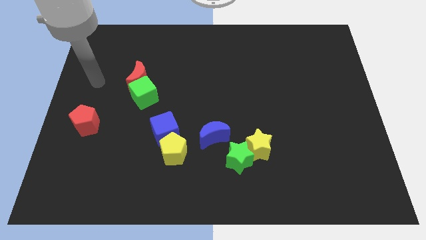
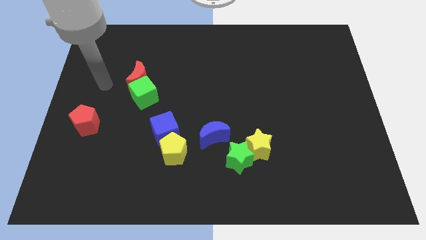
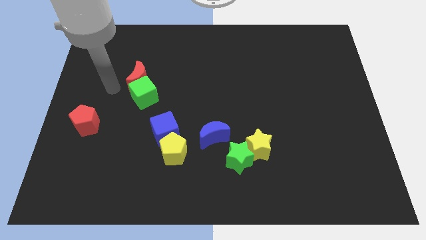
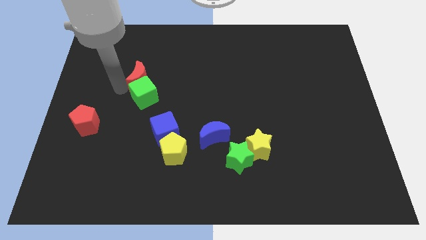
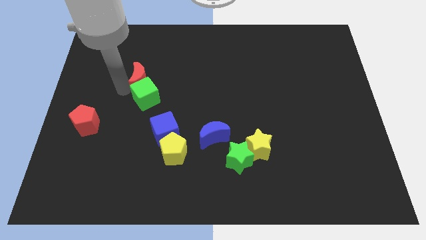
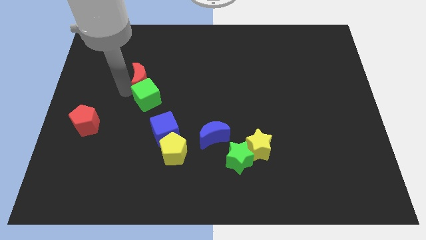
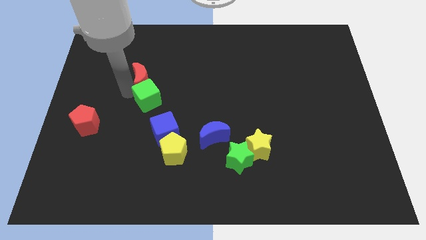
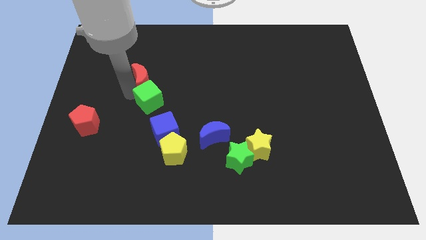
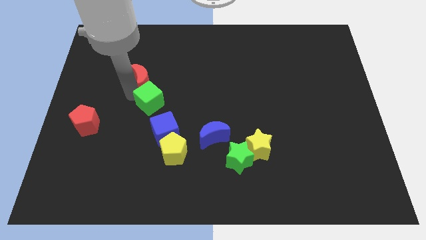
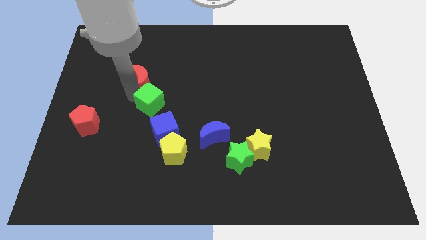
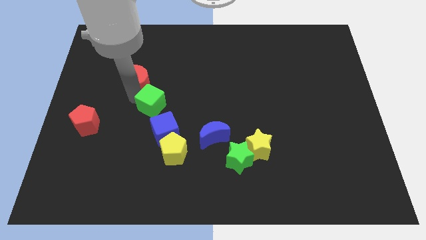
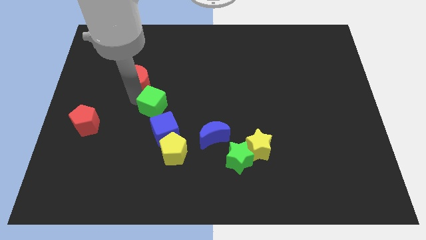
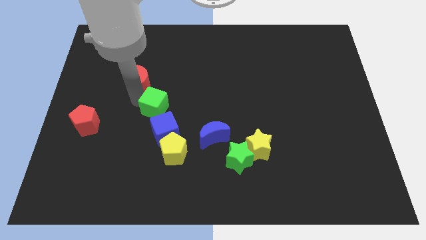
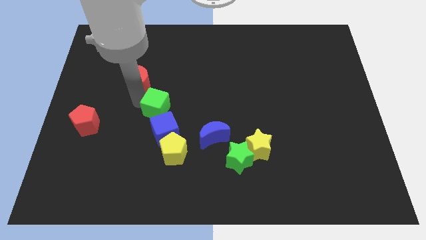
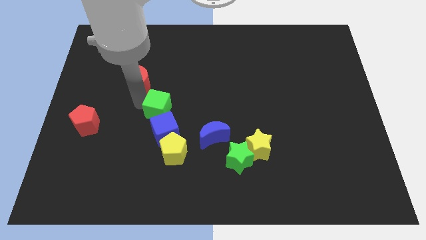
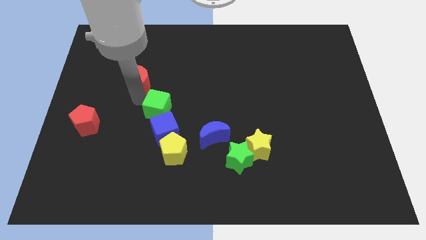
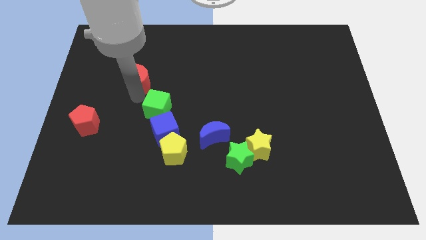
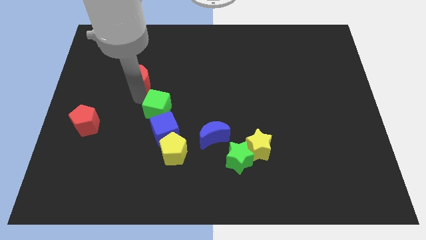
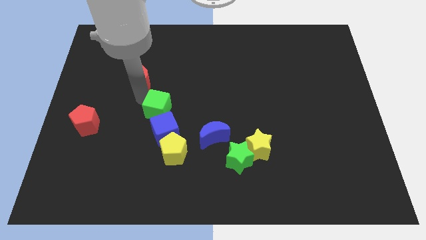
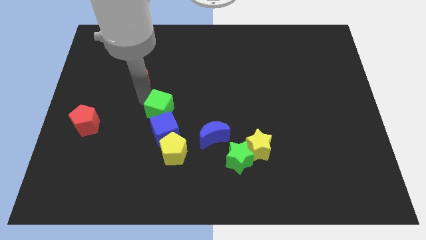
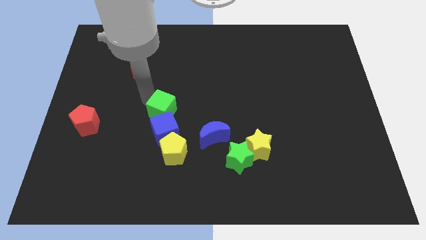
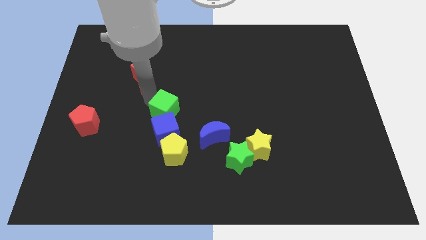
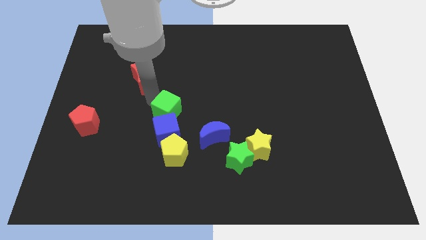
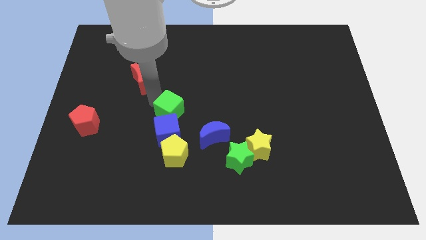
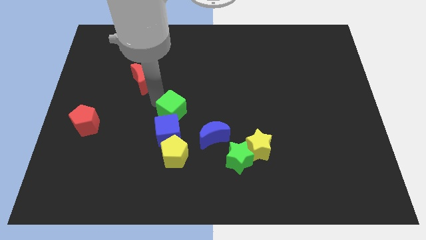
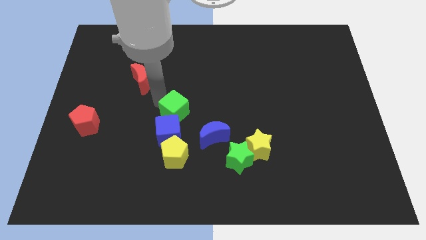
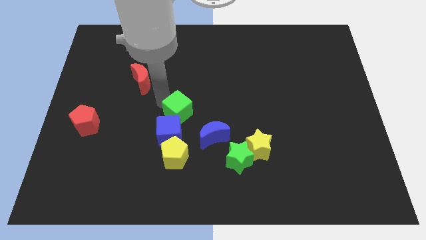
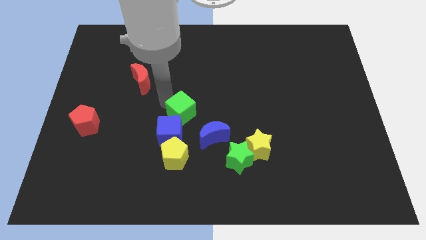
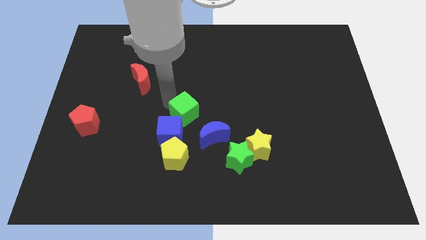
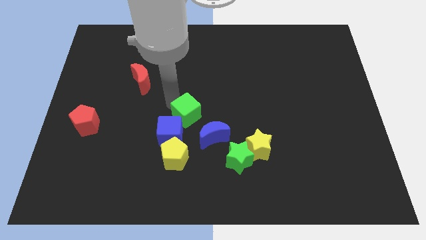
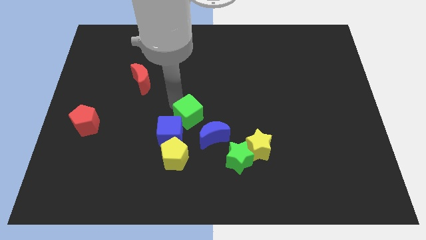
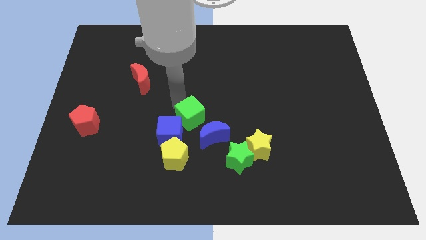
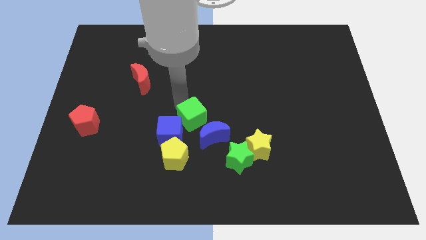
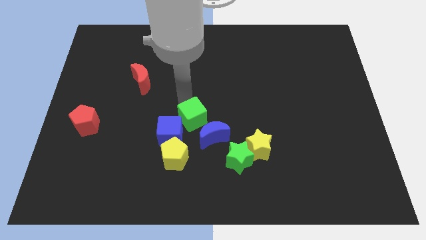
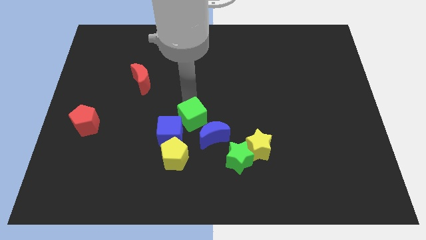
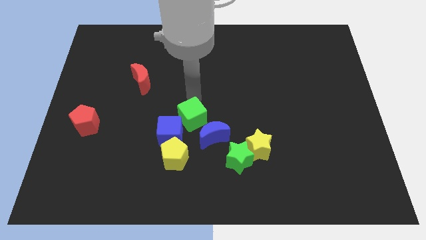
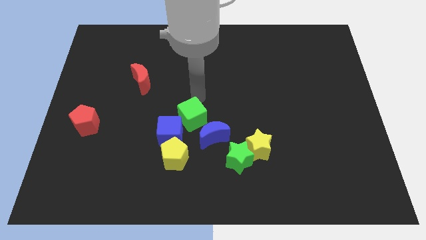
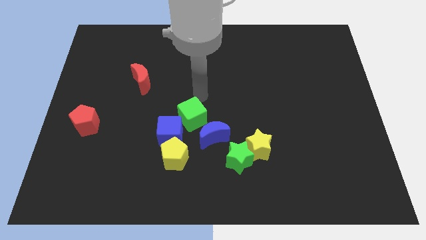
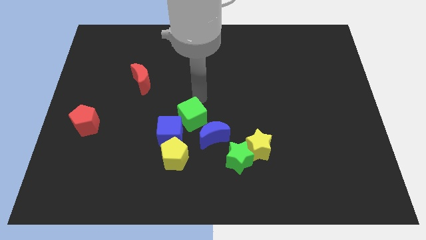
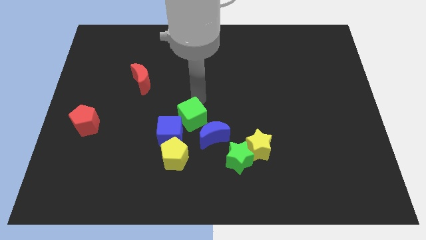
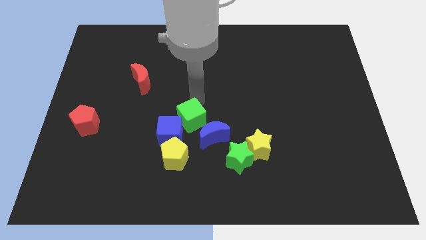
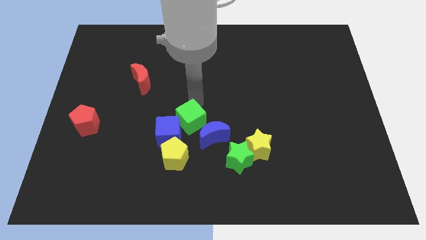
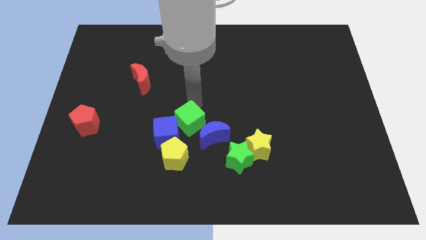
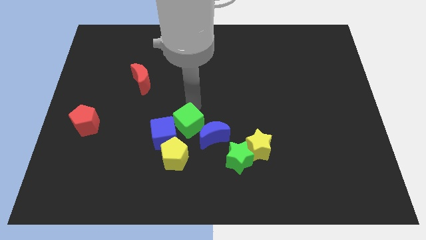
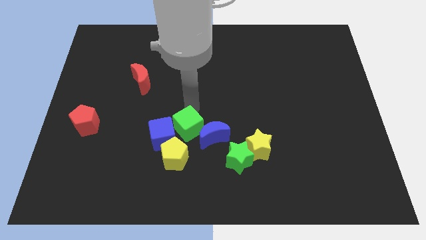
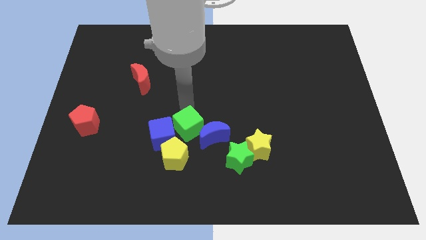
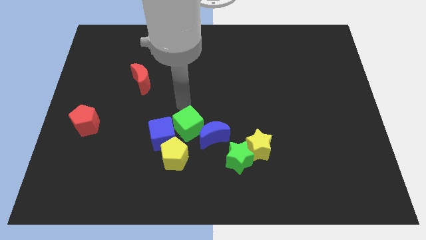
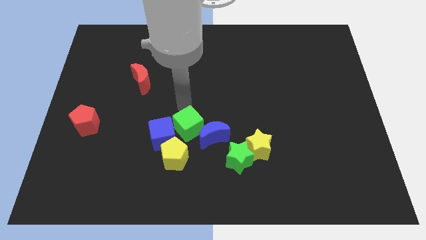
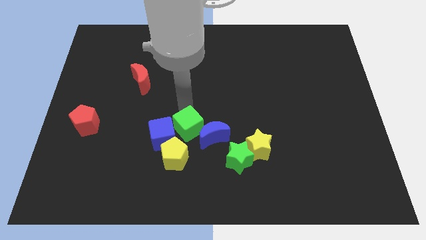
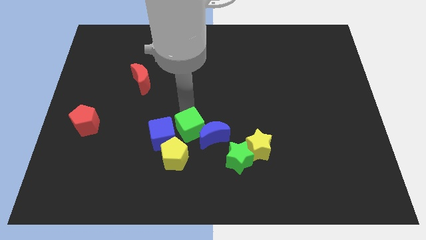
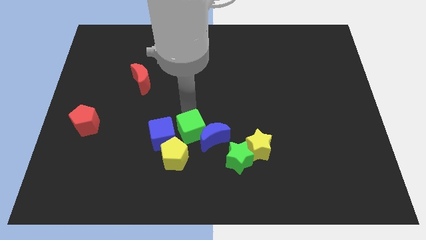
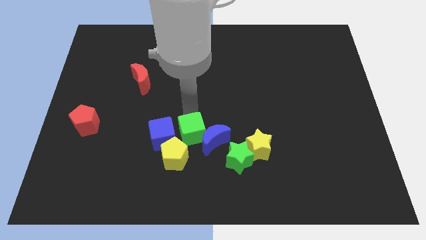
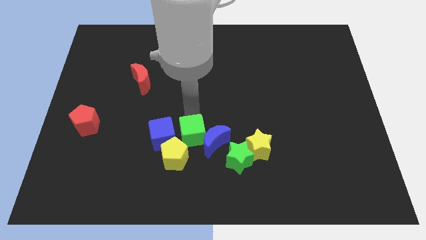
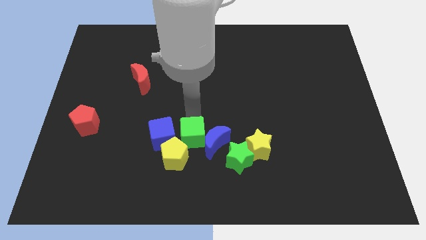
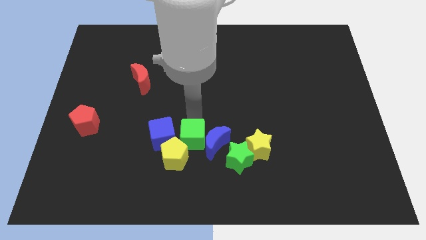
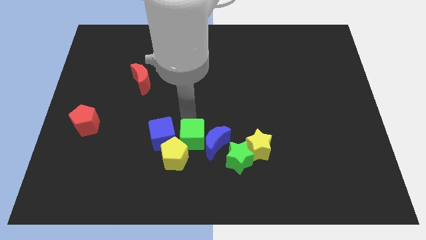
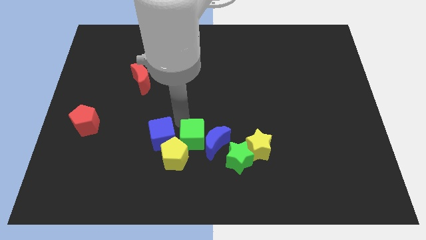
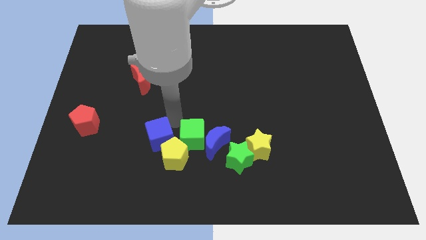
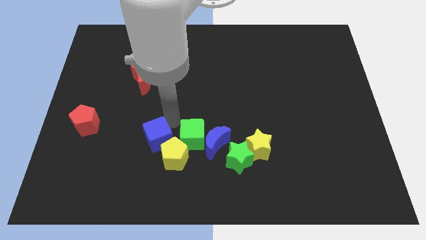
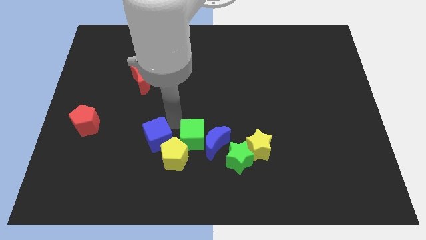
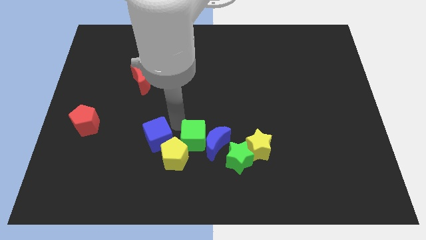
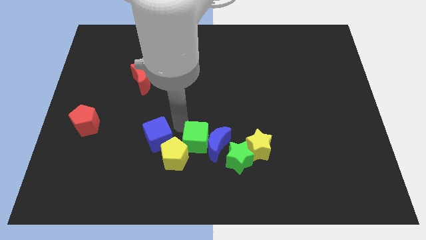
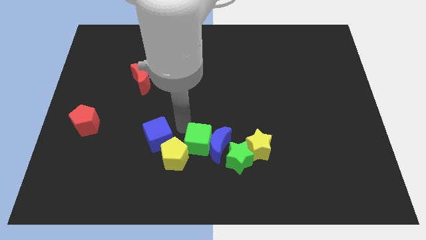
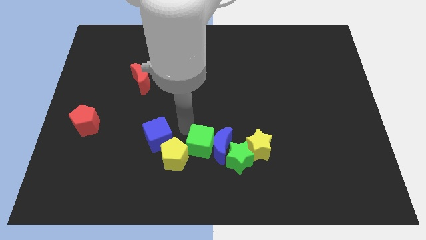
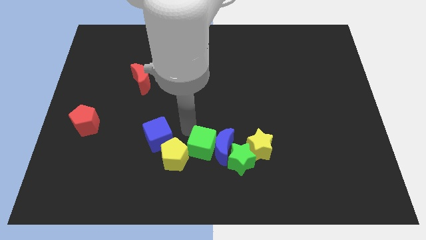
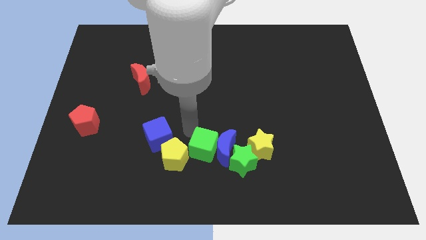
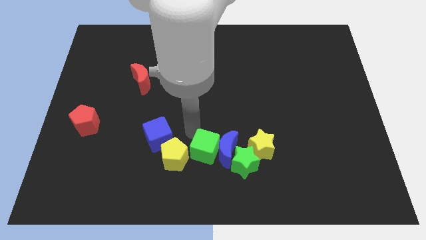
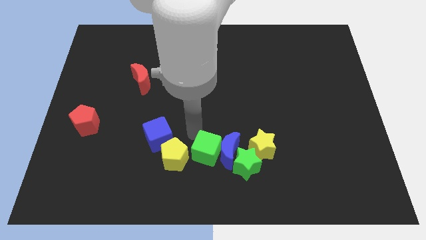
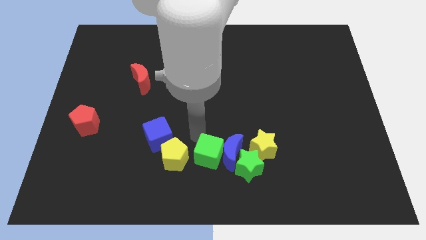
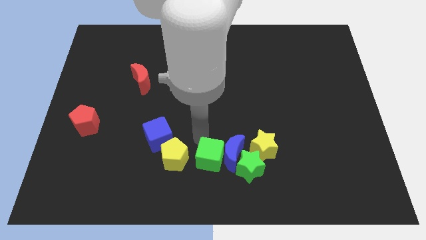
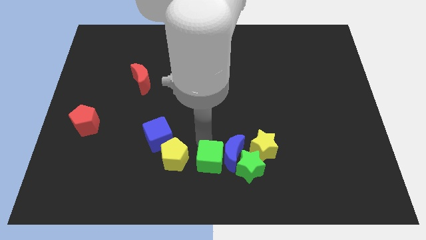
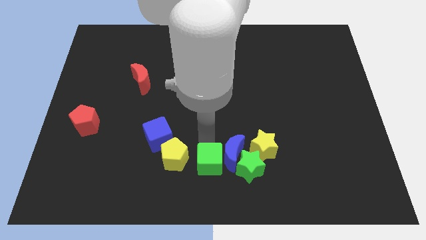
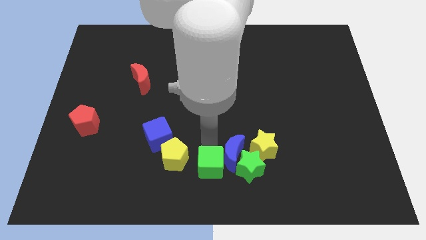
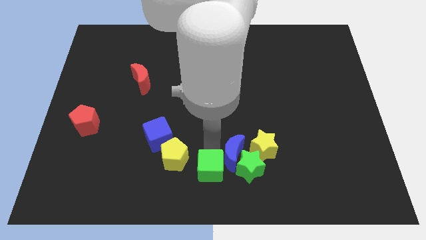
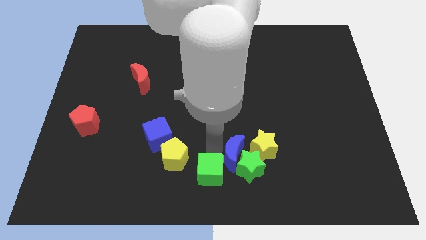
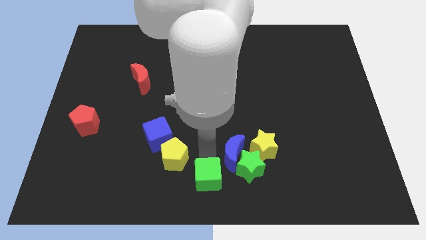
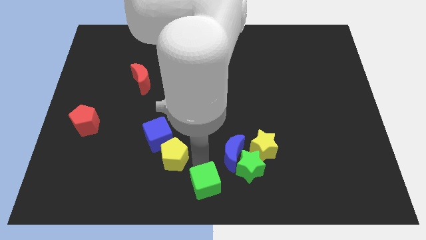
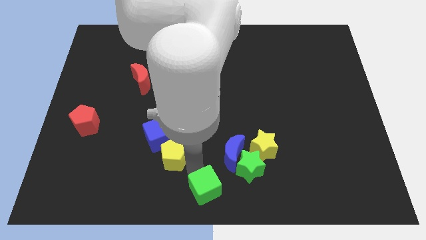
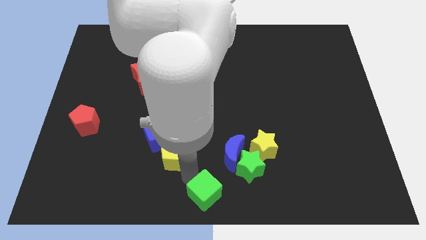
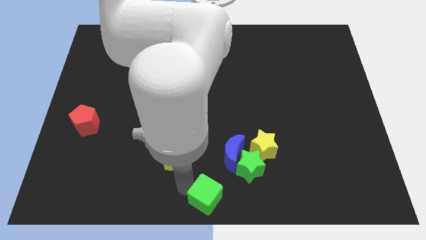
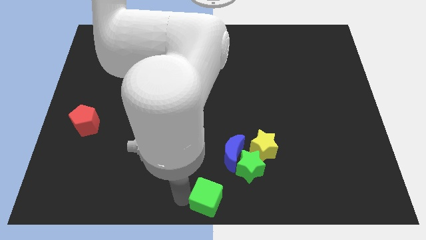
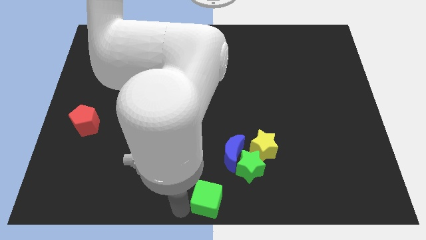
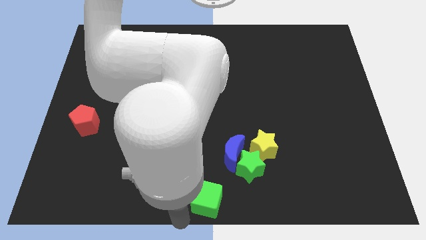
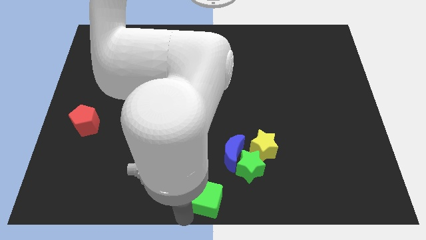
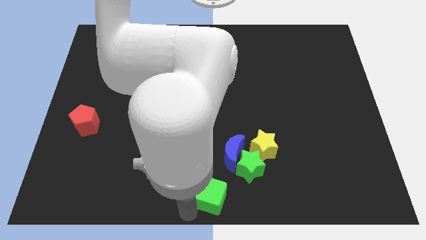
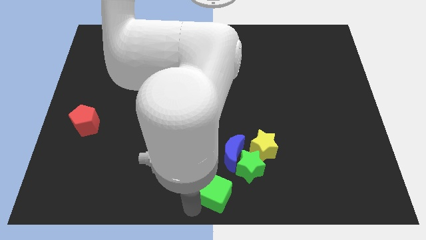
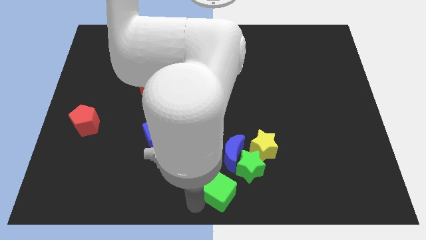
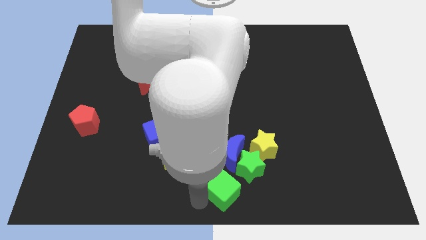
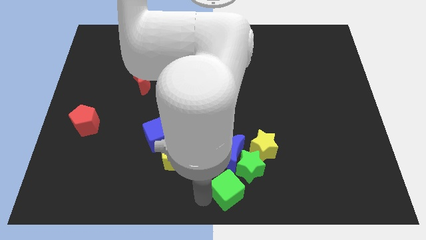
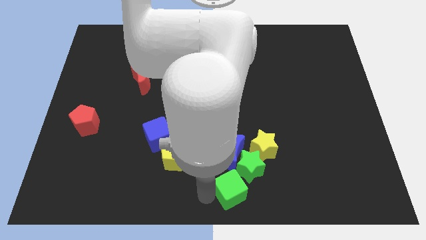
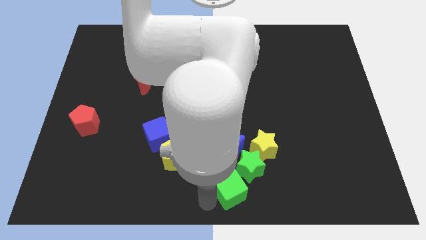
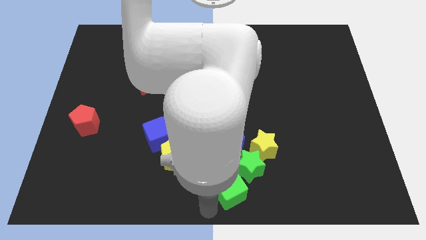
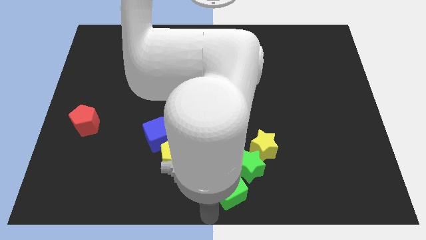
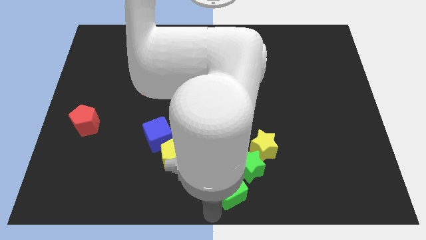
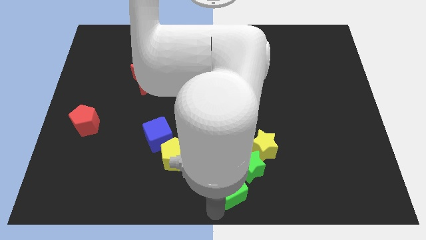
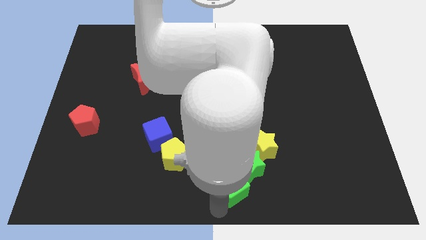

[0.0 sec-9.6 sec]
push the green cube next to the green star
